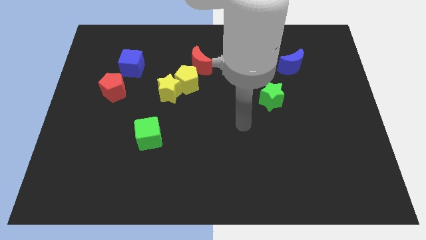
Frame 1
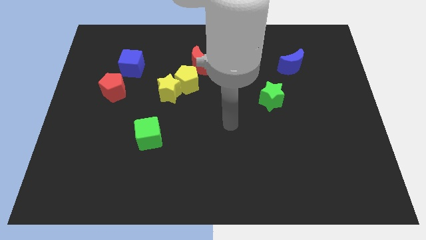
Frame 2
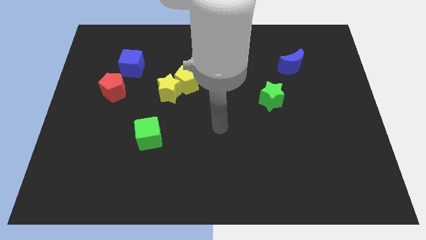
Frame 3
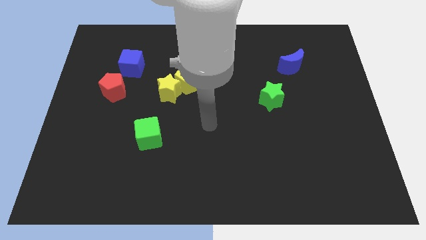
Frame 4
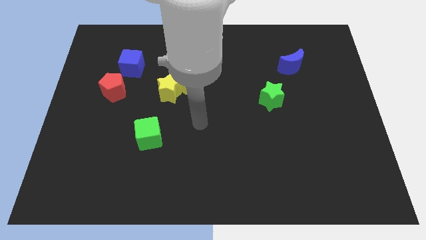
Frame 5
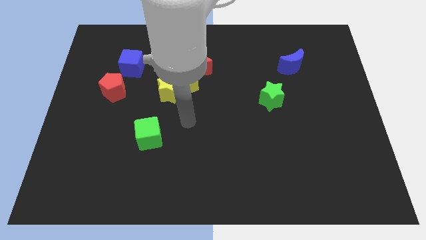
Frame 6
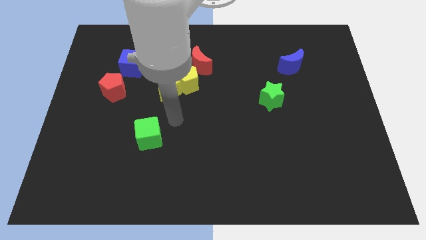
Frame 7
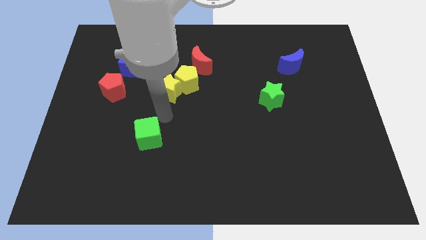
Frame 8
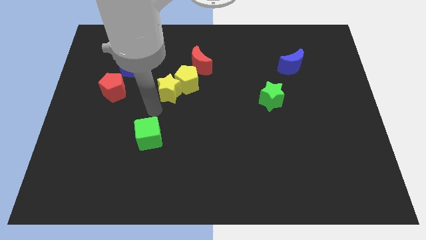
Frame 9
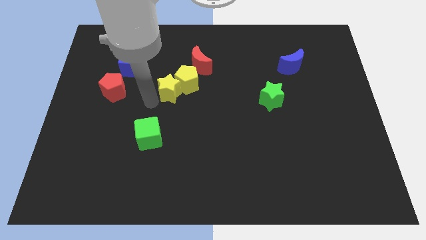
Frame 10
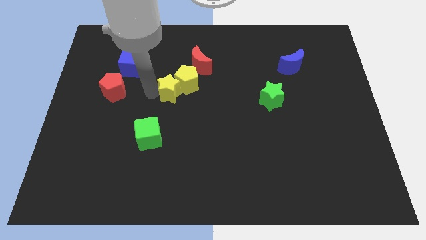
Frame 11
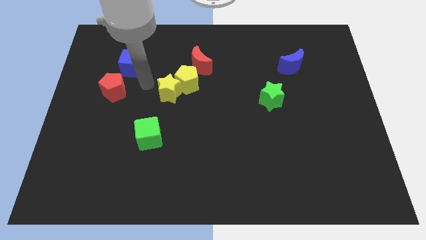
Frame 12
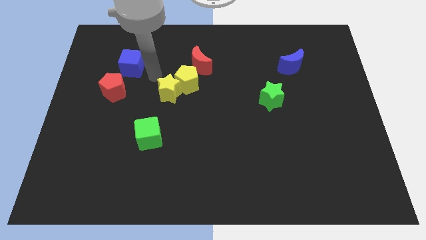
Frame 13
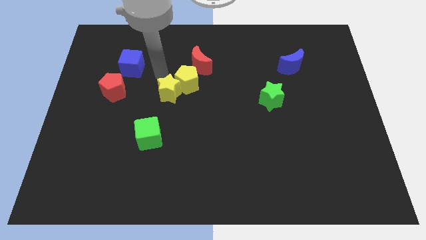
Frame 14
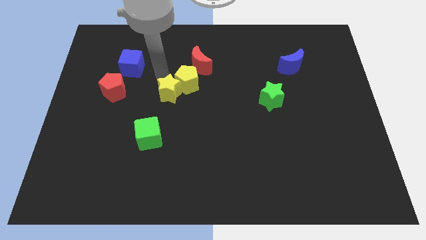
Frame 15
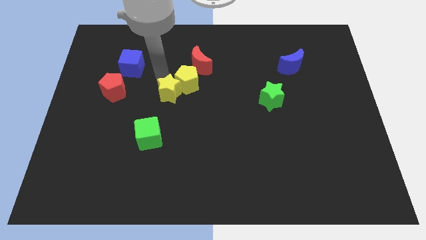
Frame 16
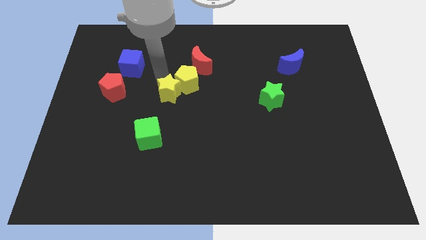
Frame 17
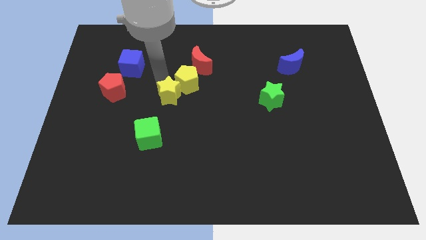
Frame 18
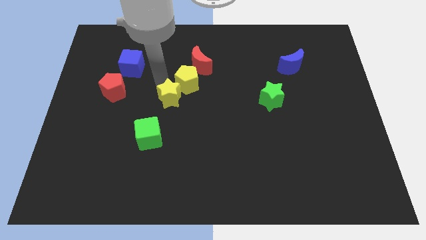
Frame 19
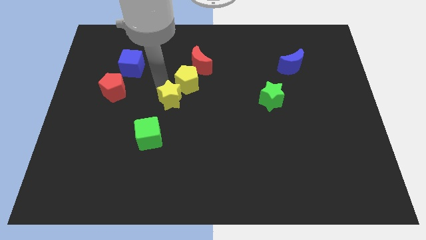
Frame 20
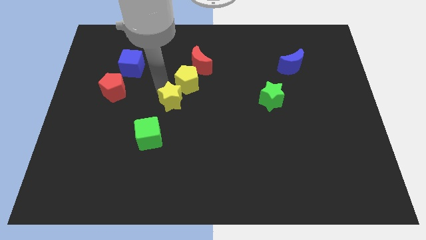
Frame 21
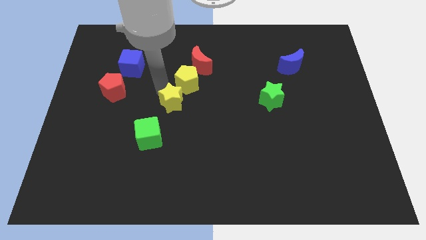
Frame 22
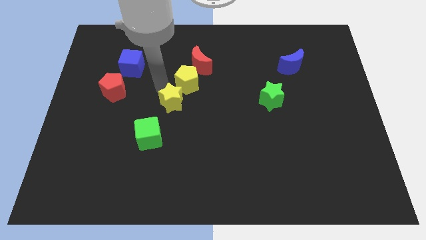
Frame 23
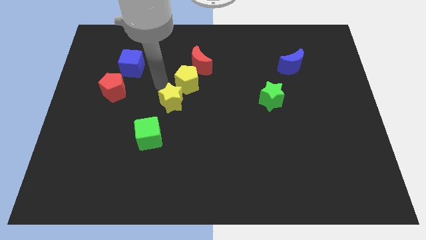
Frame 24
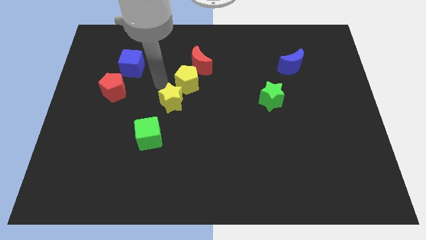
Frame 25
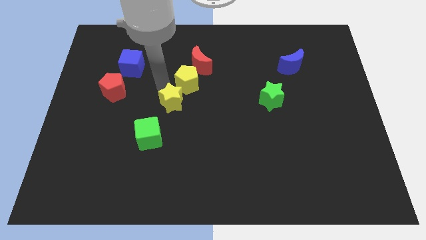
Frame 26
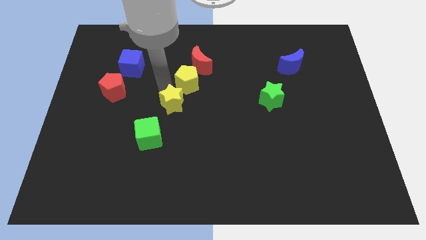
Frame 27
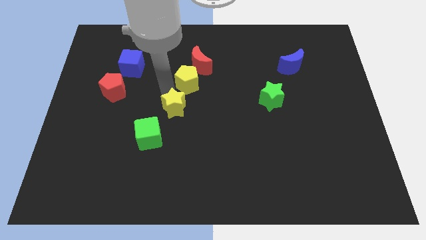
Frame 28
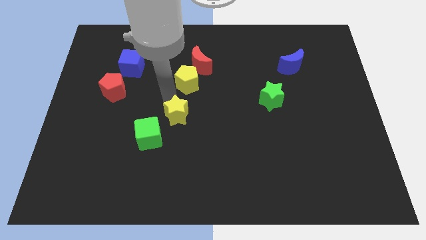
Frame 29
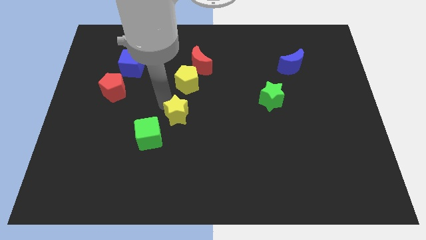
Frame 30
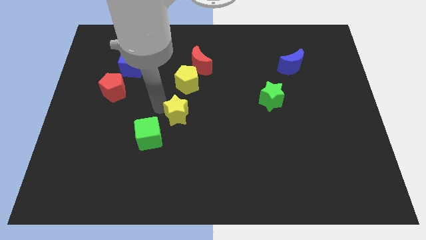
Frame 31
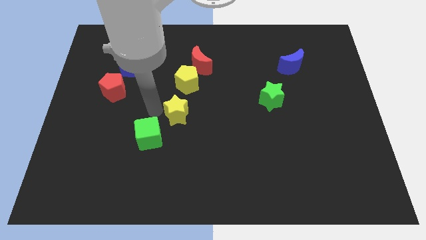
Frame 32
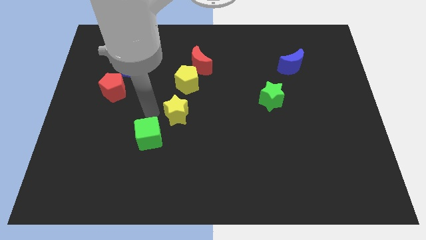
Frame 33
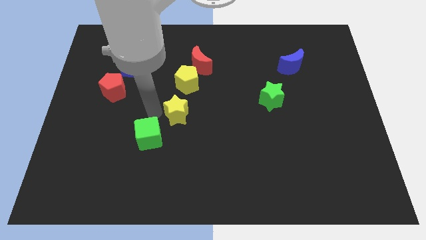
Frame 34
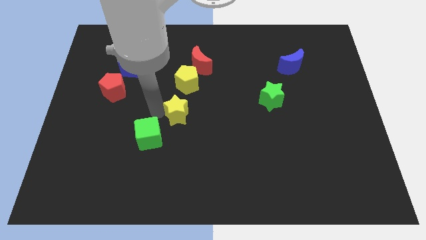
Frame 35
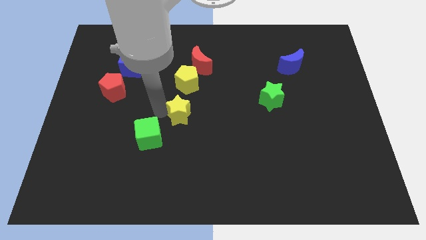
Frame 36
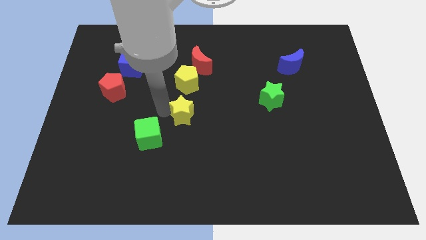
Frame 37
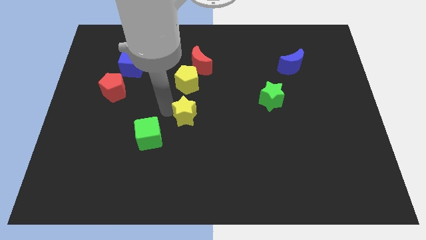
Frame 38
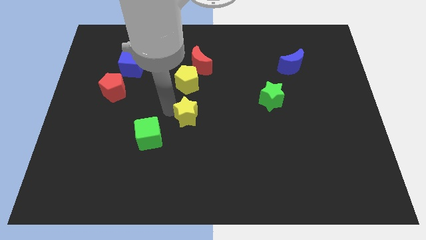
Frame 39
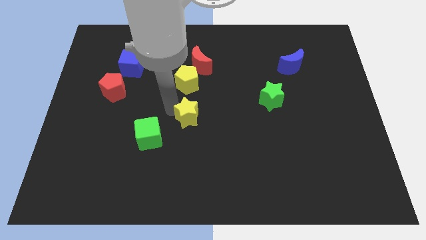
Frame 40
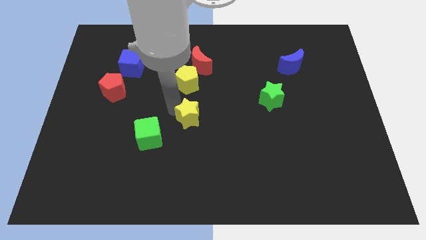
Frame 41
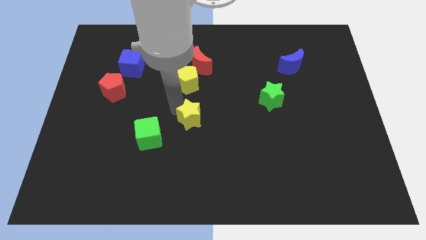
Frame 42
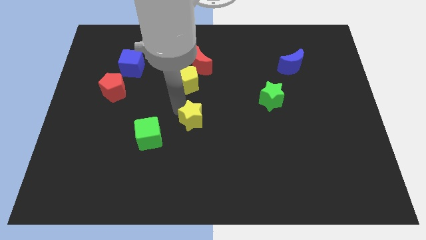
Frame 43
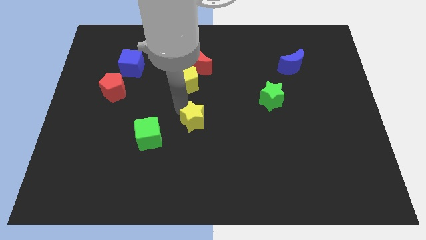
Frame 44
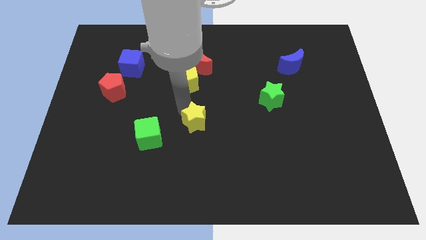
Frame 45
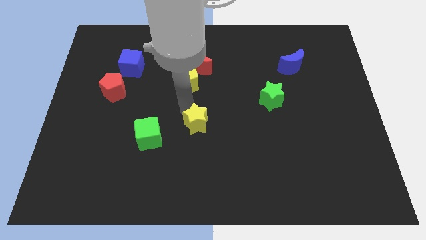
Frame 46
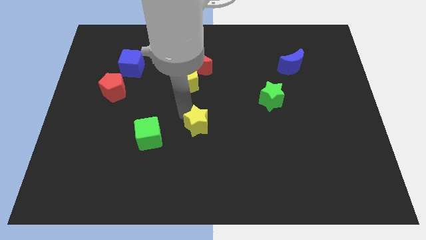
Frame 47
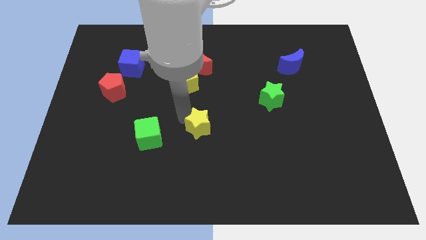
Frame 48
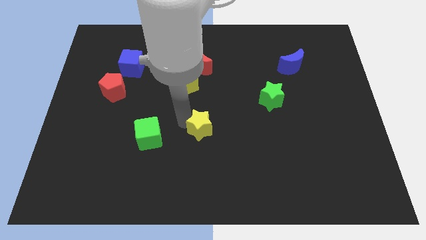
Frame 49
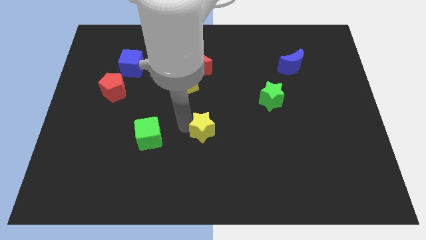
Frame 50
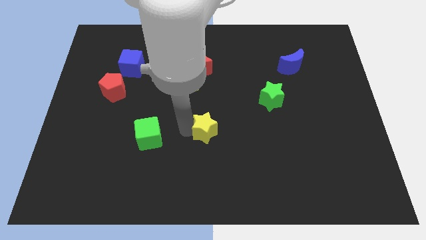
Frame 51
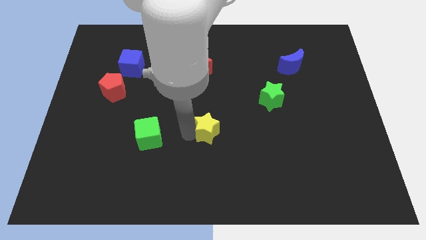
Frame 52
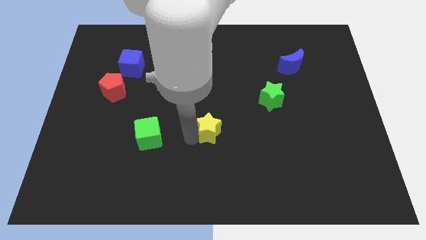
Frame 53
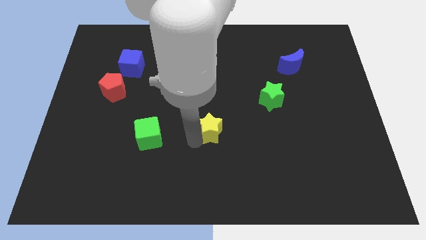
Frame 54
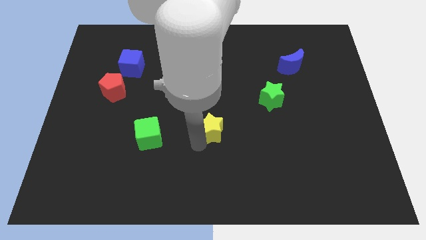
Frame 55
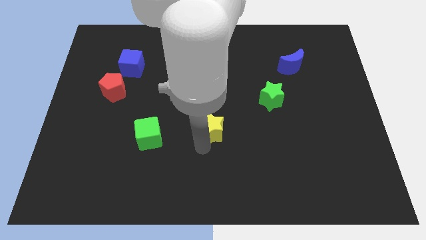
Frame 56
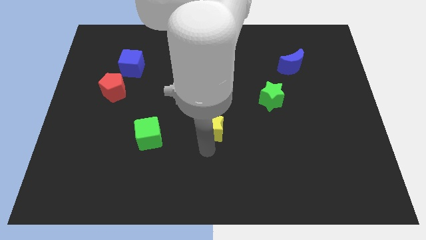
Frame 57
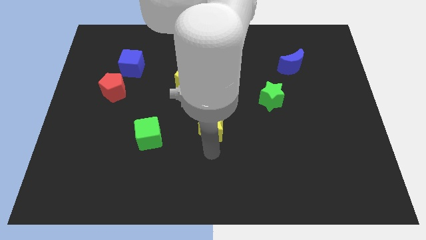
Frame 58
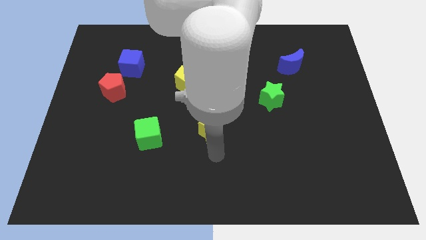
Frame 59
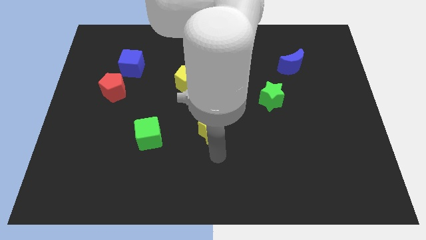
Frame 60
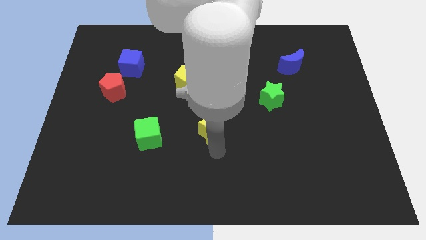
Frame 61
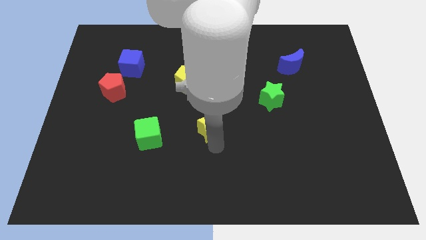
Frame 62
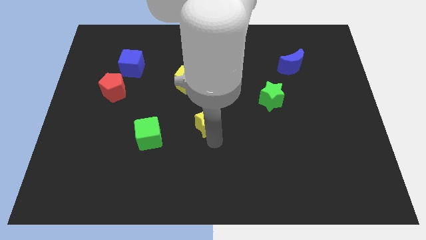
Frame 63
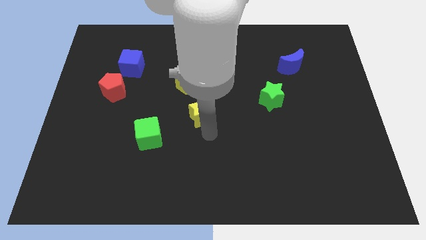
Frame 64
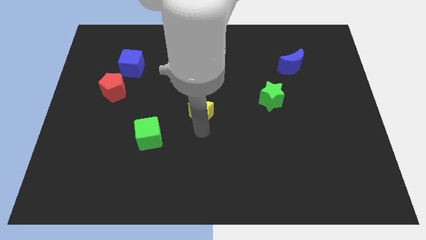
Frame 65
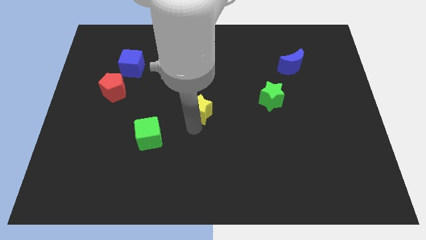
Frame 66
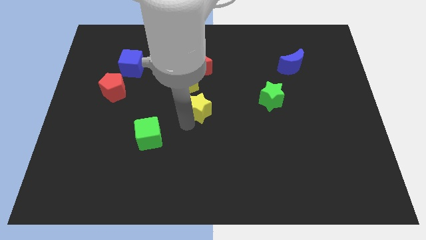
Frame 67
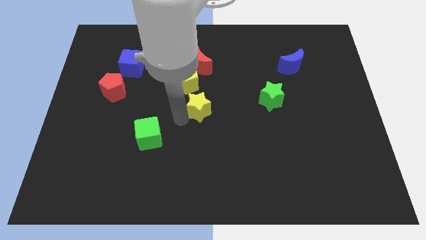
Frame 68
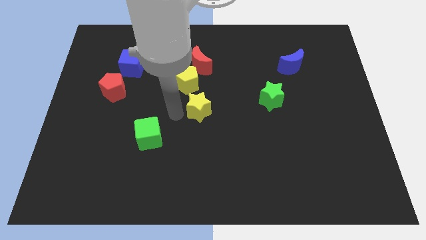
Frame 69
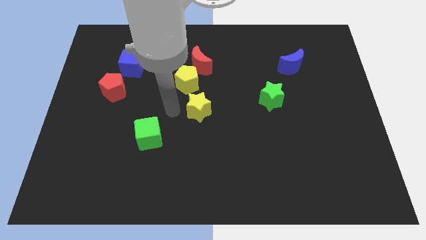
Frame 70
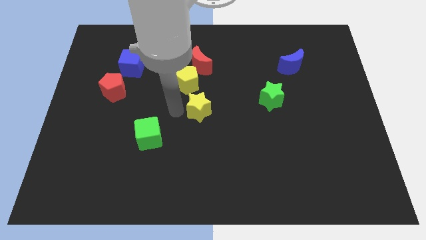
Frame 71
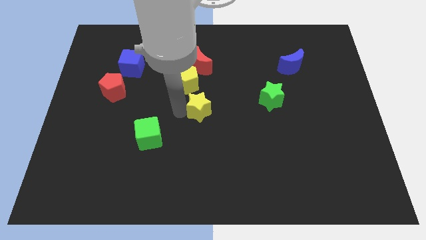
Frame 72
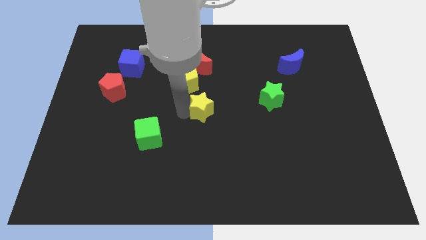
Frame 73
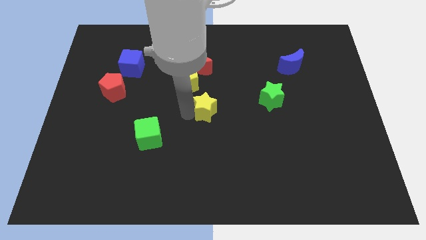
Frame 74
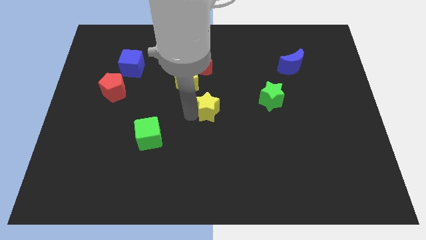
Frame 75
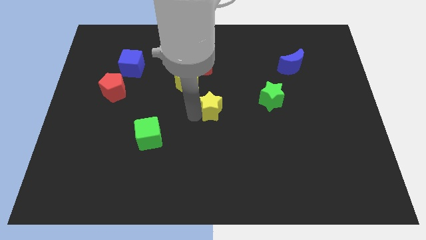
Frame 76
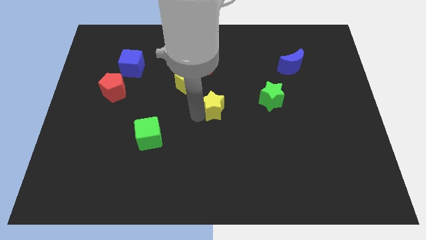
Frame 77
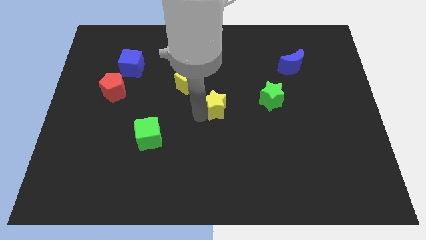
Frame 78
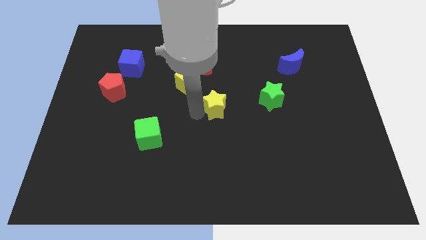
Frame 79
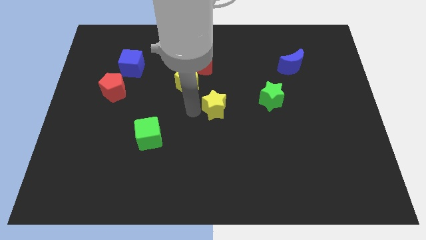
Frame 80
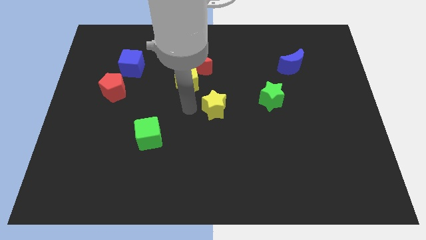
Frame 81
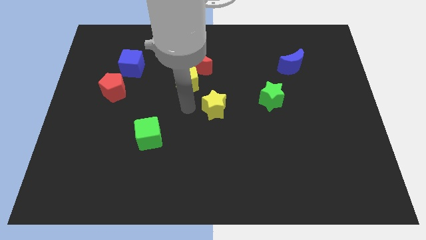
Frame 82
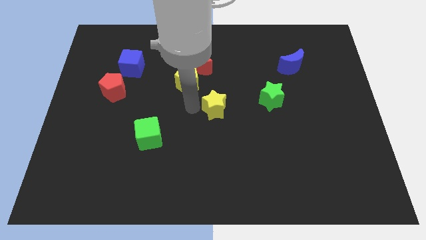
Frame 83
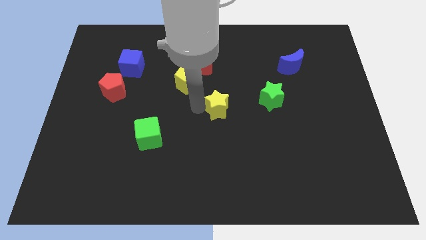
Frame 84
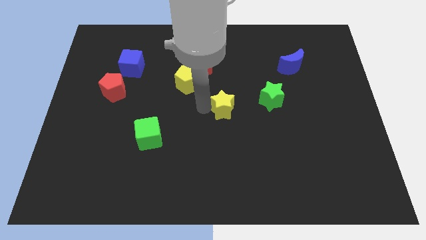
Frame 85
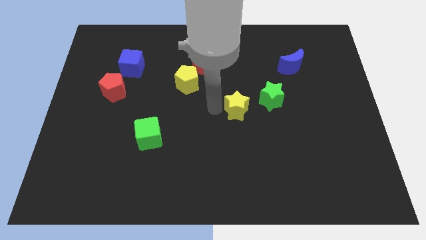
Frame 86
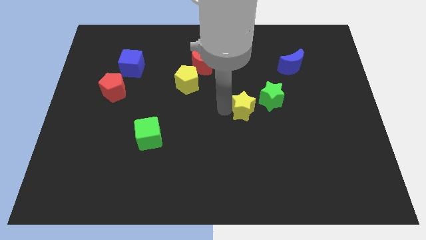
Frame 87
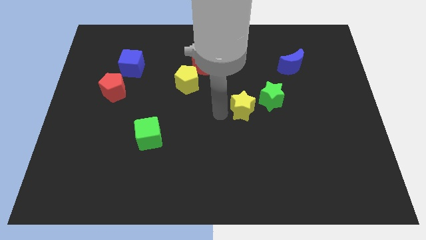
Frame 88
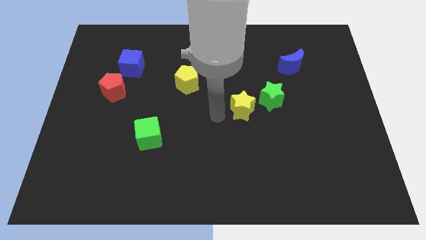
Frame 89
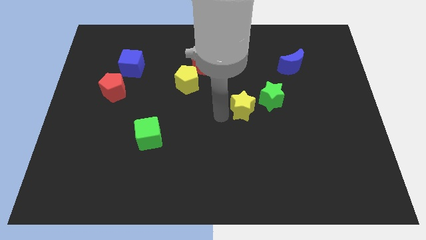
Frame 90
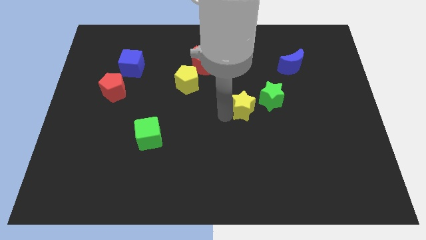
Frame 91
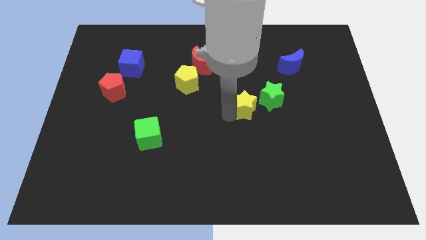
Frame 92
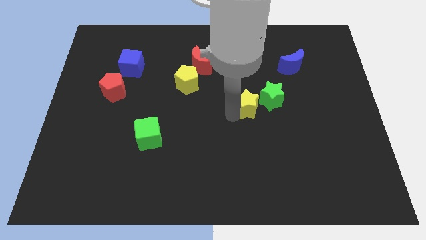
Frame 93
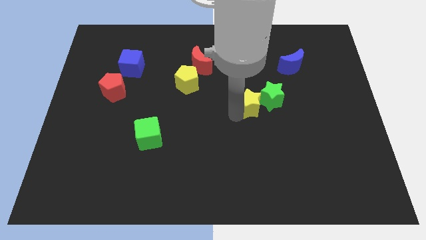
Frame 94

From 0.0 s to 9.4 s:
move the yellow star towards the green star
